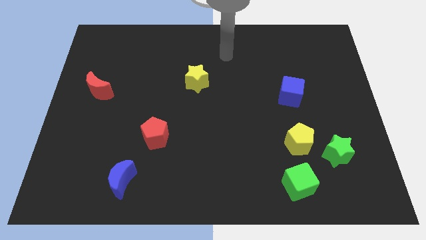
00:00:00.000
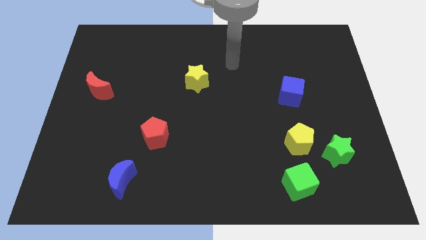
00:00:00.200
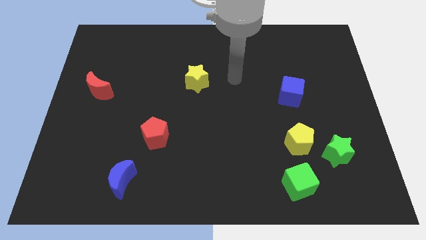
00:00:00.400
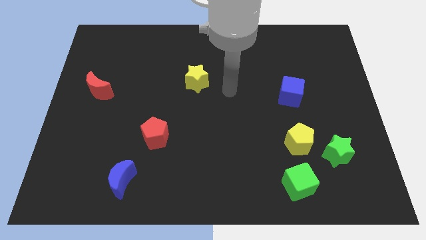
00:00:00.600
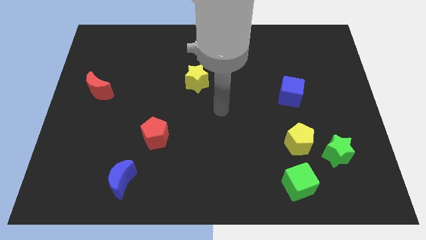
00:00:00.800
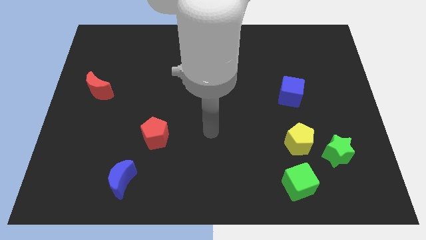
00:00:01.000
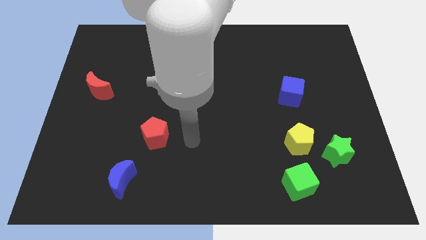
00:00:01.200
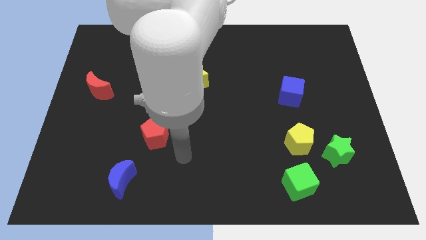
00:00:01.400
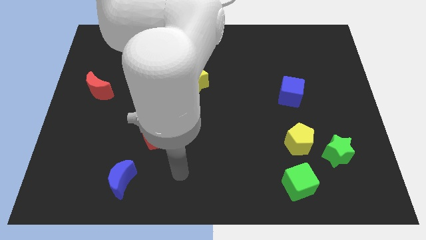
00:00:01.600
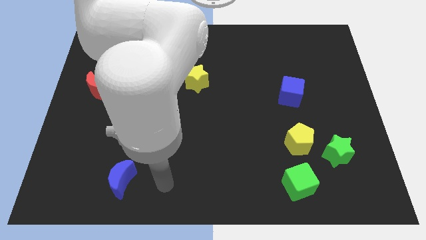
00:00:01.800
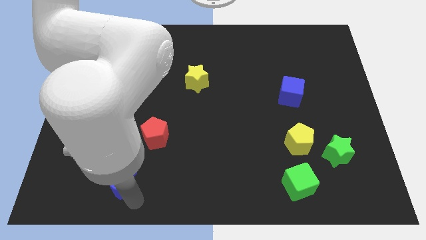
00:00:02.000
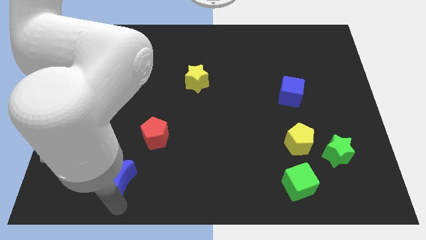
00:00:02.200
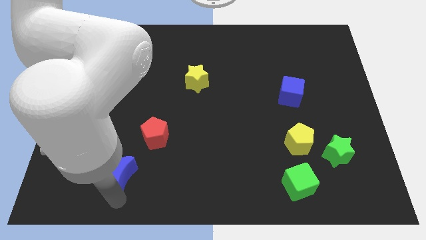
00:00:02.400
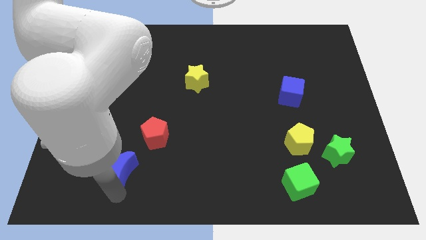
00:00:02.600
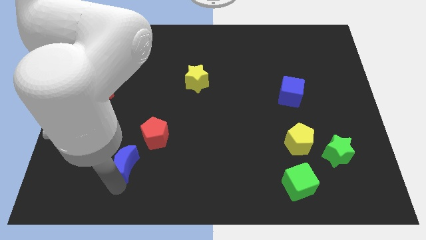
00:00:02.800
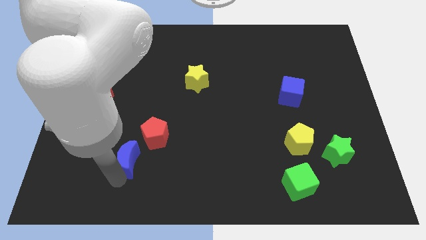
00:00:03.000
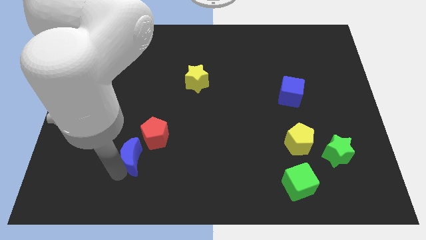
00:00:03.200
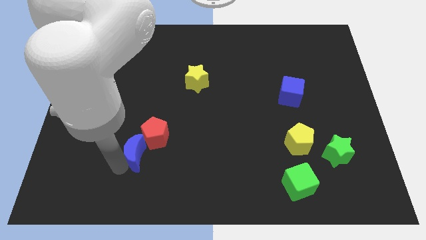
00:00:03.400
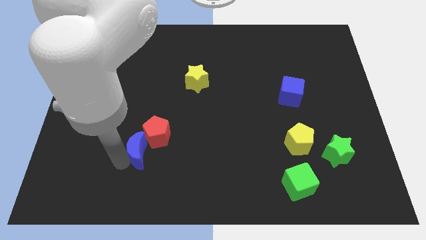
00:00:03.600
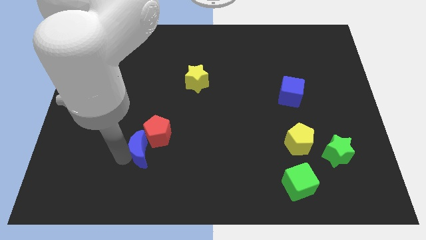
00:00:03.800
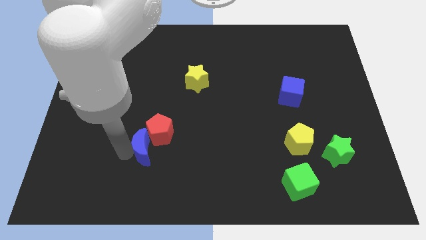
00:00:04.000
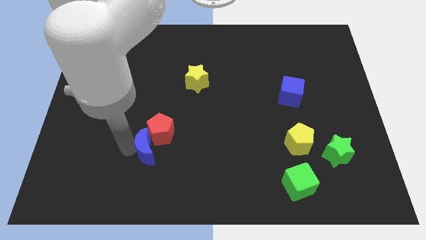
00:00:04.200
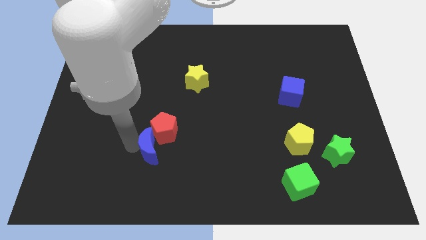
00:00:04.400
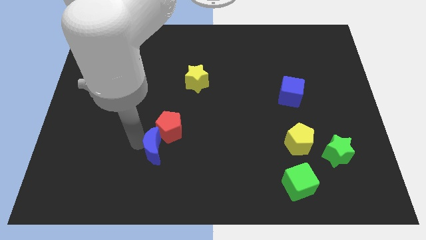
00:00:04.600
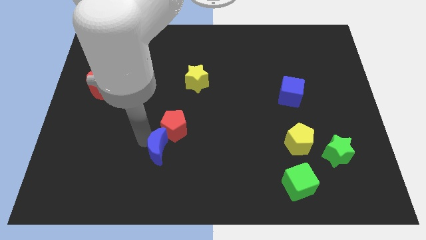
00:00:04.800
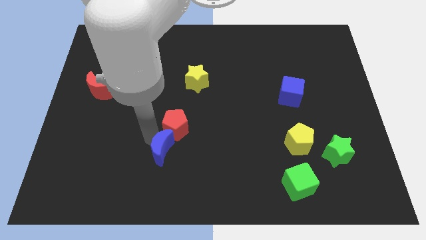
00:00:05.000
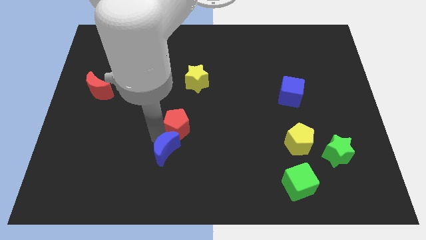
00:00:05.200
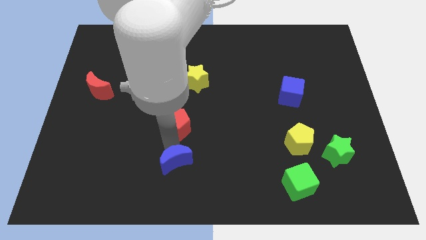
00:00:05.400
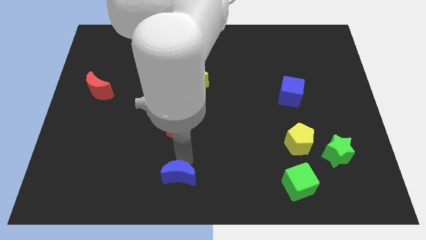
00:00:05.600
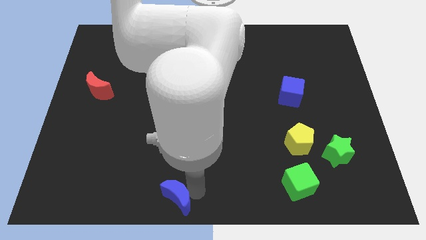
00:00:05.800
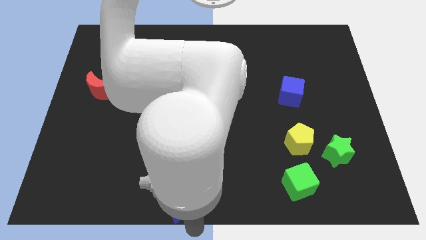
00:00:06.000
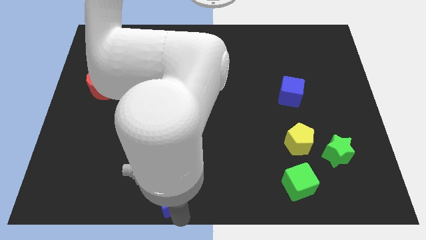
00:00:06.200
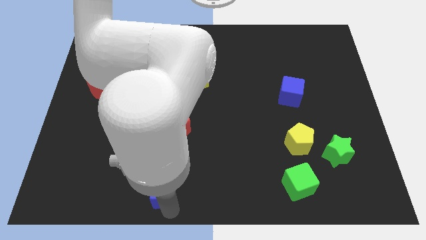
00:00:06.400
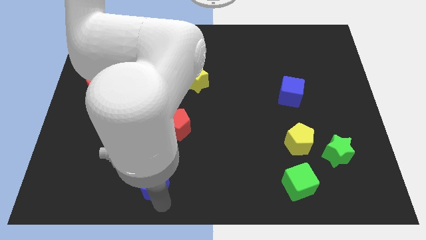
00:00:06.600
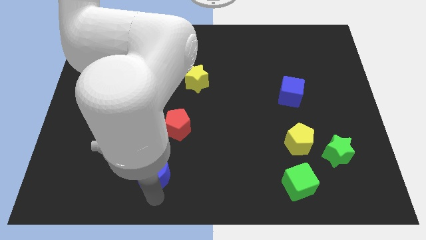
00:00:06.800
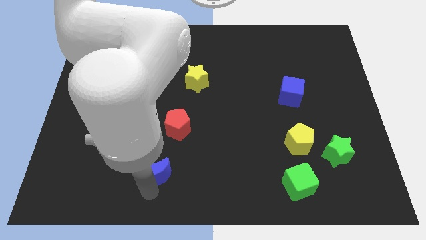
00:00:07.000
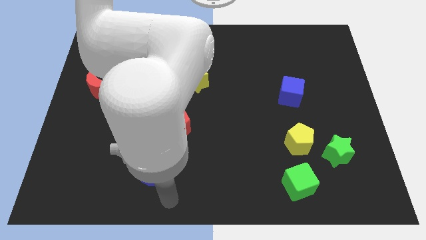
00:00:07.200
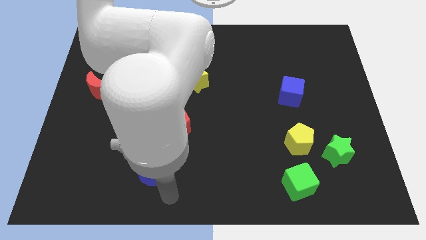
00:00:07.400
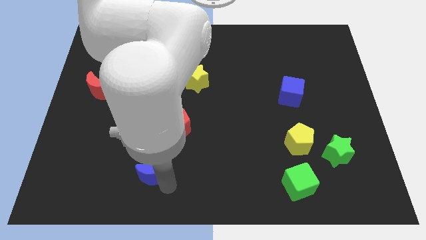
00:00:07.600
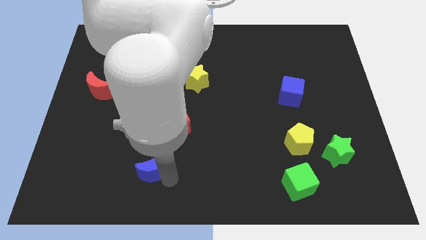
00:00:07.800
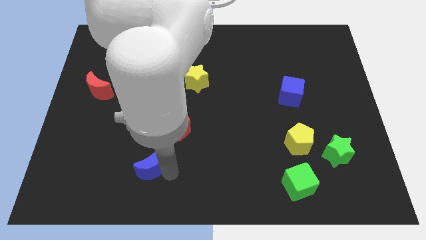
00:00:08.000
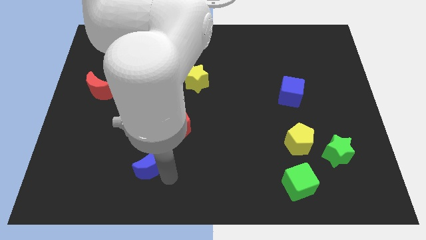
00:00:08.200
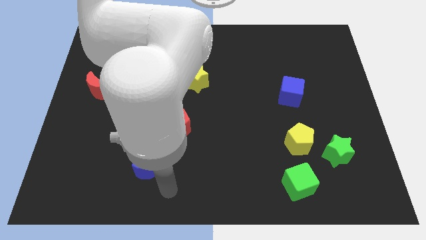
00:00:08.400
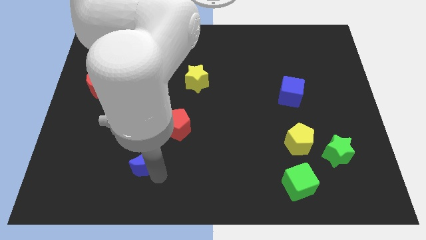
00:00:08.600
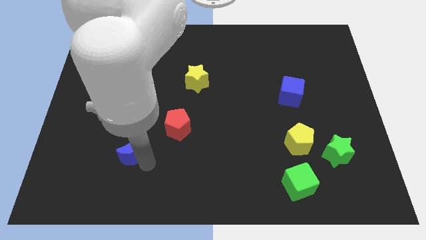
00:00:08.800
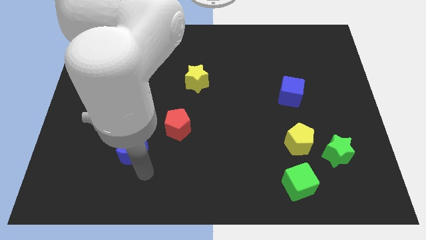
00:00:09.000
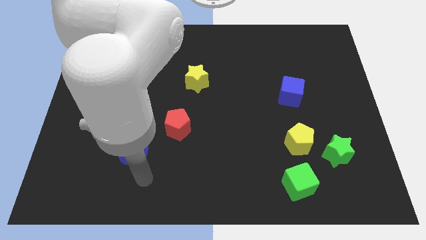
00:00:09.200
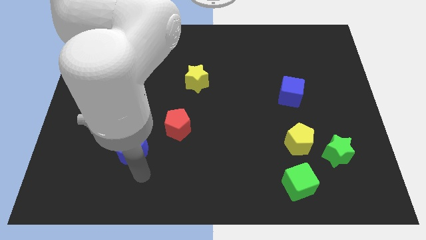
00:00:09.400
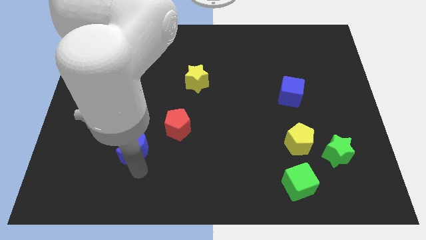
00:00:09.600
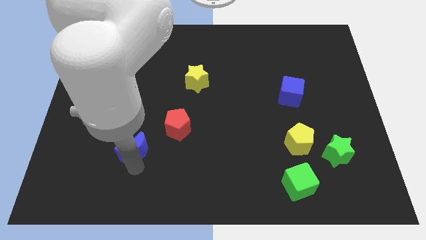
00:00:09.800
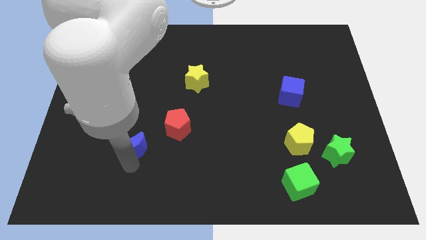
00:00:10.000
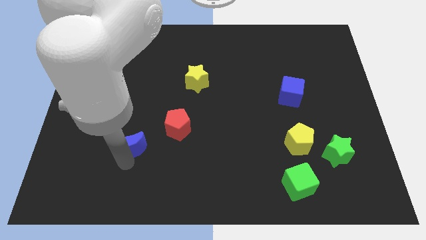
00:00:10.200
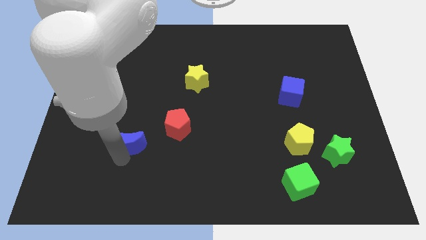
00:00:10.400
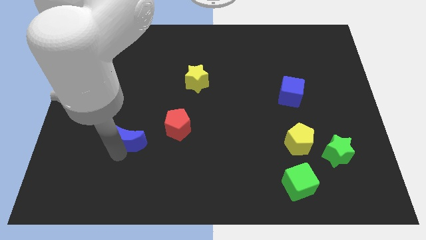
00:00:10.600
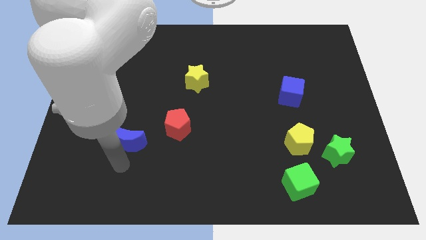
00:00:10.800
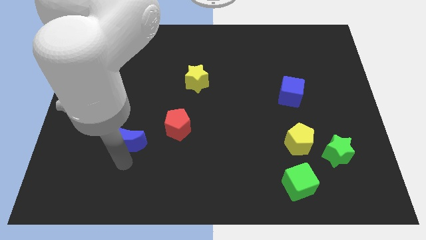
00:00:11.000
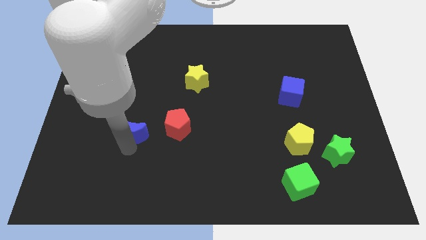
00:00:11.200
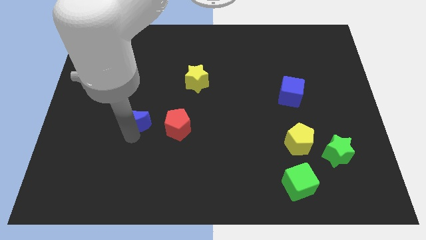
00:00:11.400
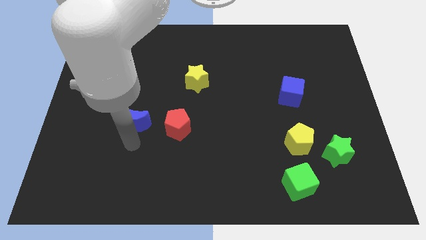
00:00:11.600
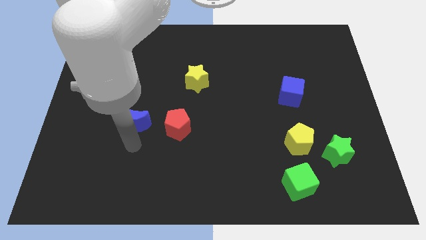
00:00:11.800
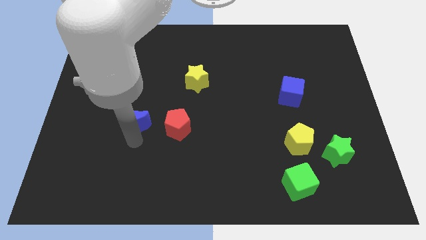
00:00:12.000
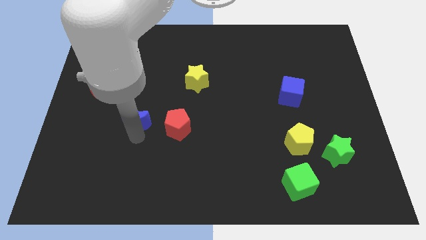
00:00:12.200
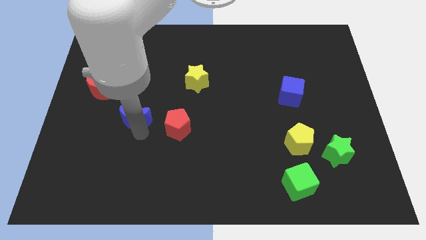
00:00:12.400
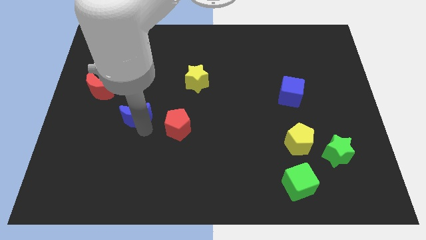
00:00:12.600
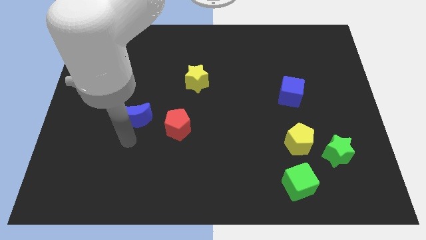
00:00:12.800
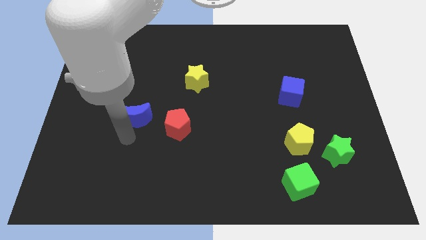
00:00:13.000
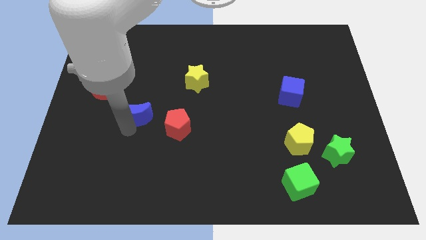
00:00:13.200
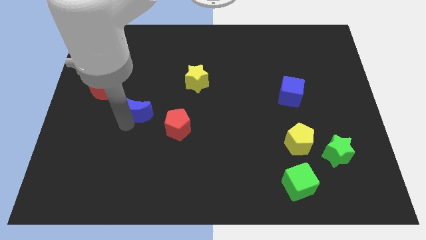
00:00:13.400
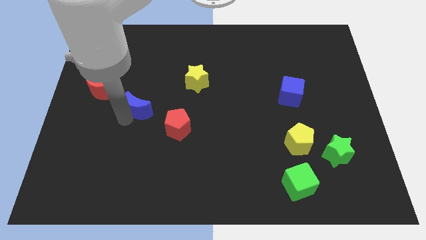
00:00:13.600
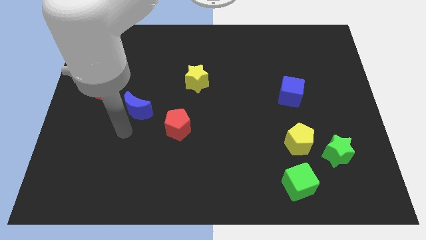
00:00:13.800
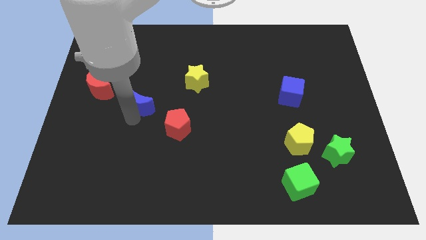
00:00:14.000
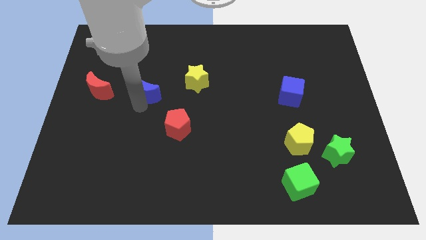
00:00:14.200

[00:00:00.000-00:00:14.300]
push the blue moon to the left of the yellow star
